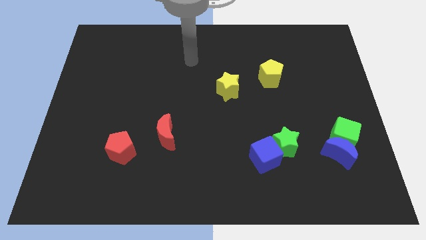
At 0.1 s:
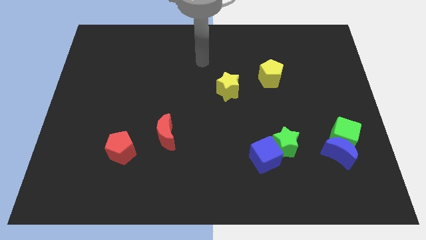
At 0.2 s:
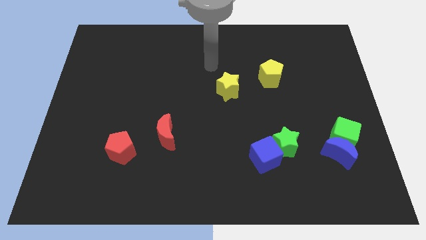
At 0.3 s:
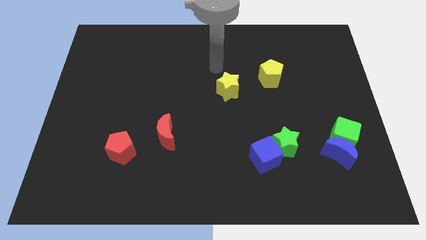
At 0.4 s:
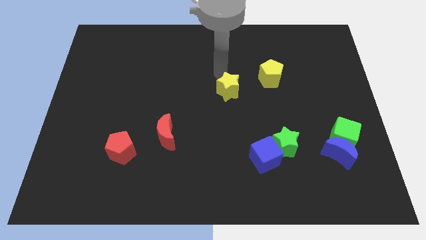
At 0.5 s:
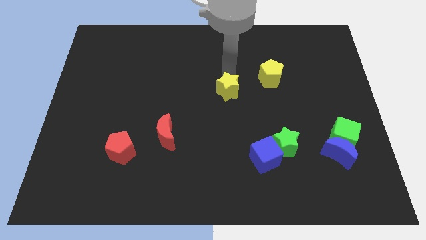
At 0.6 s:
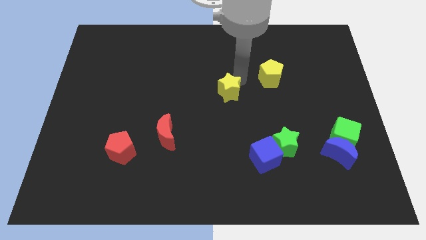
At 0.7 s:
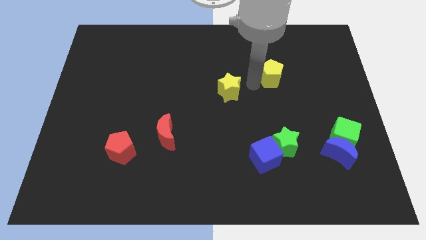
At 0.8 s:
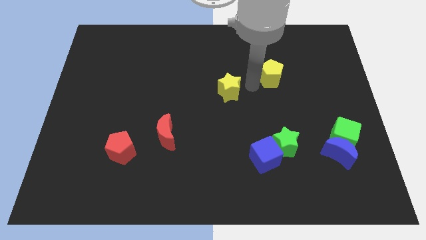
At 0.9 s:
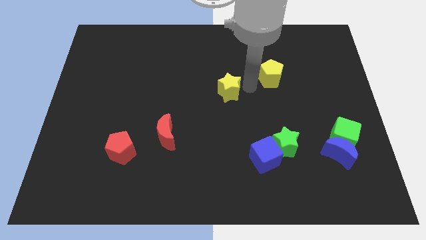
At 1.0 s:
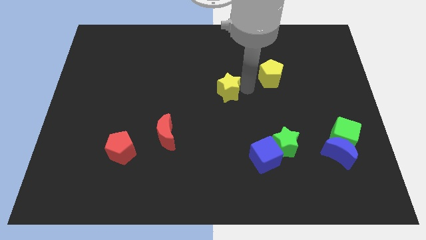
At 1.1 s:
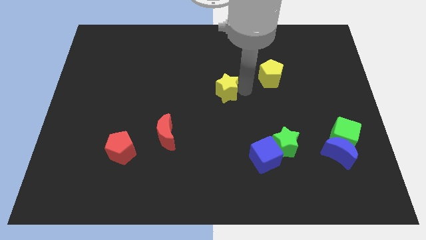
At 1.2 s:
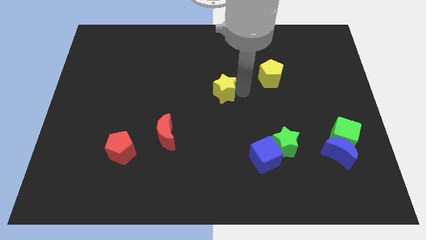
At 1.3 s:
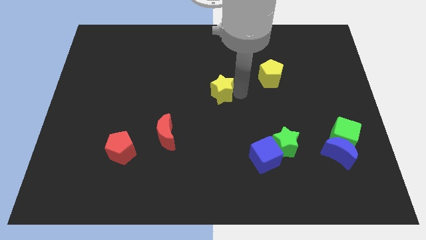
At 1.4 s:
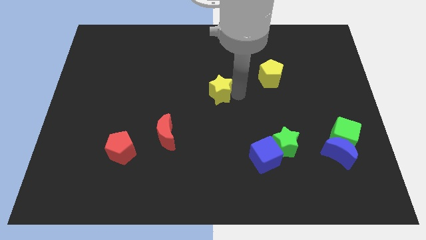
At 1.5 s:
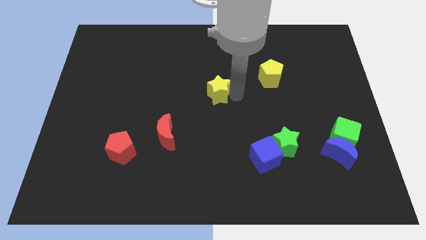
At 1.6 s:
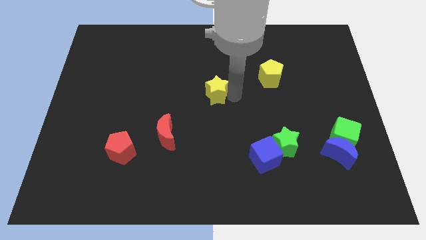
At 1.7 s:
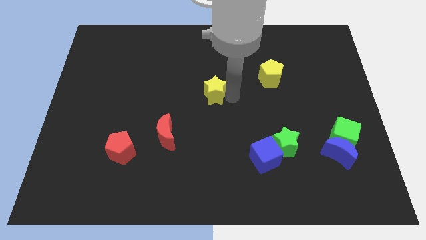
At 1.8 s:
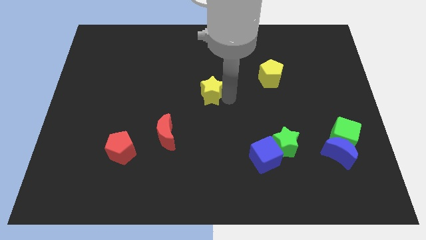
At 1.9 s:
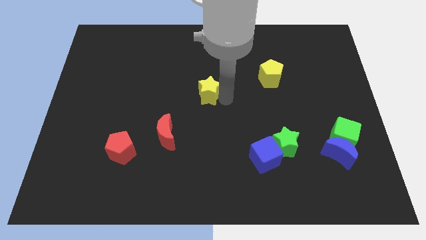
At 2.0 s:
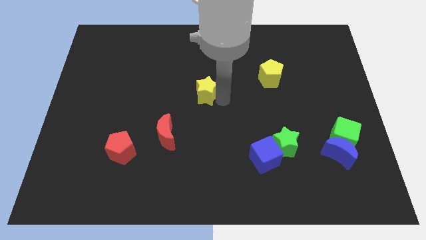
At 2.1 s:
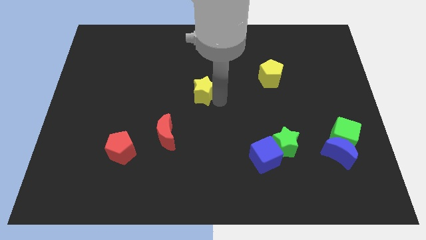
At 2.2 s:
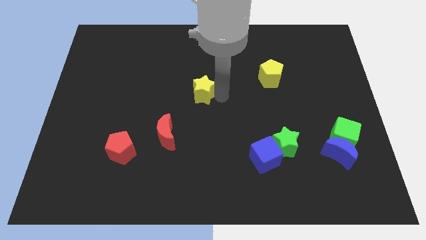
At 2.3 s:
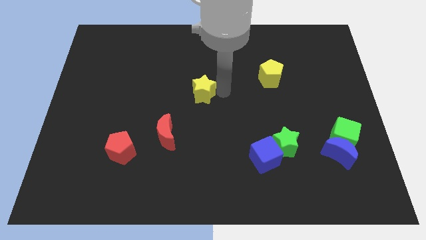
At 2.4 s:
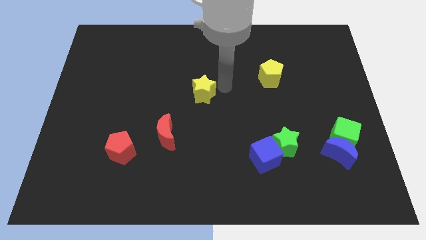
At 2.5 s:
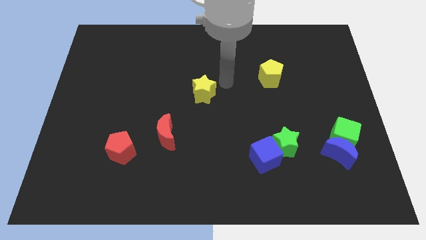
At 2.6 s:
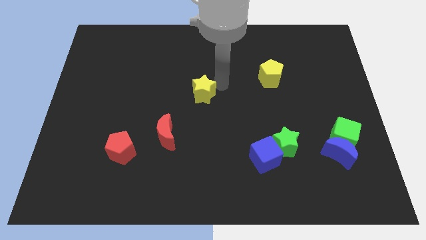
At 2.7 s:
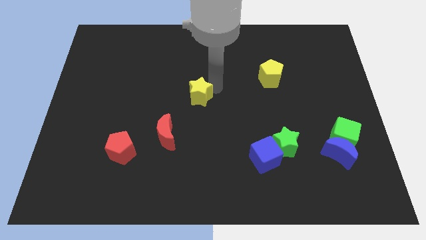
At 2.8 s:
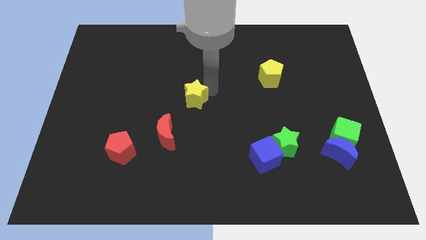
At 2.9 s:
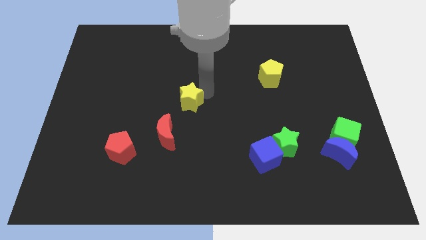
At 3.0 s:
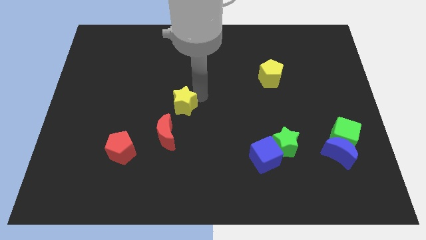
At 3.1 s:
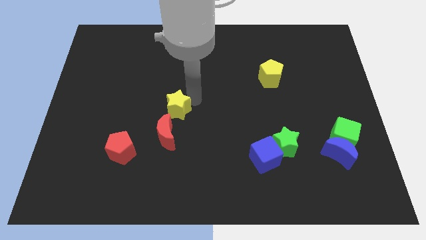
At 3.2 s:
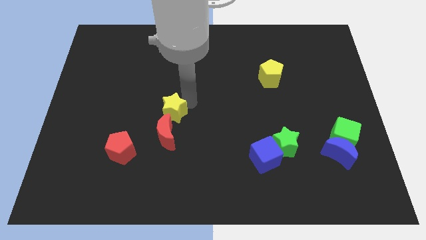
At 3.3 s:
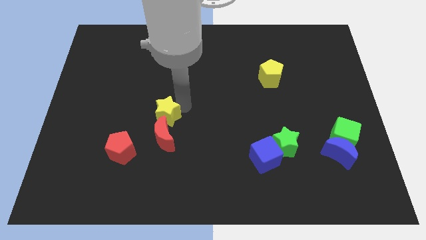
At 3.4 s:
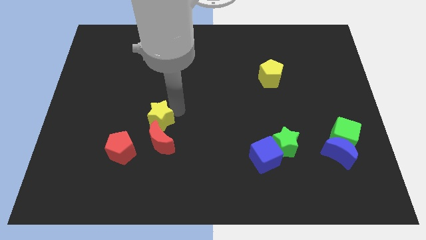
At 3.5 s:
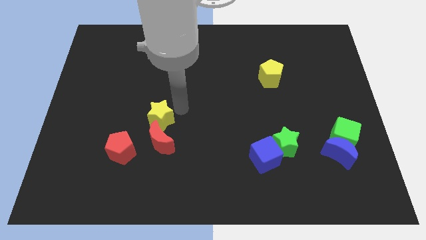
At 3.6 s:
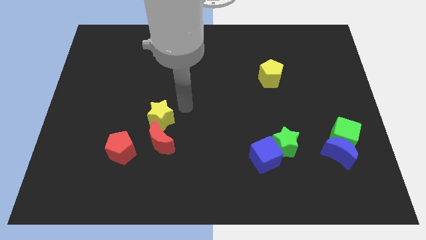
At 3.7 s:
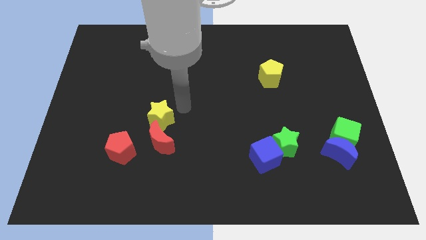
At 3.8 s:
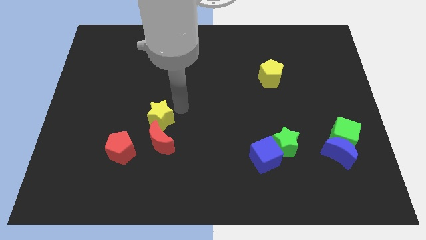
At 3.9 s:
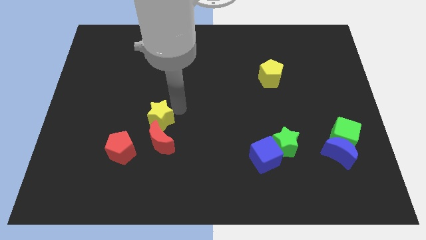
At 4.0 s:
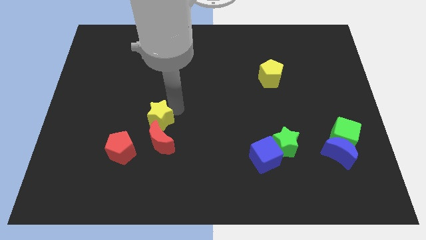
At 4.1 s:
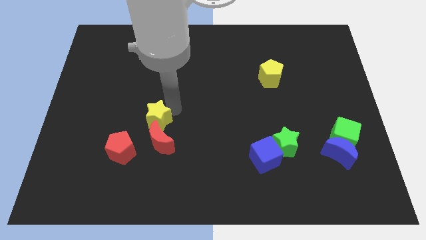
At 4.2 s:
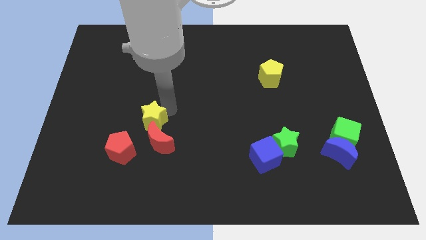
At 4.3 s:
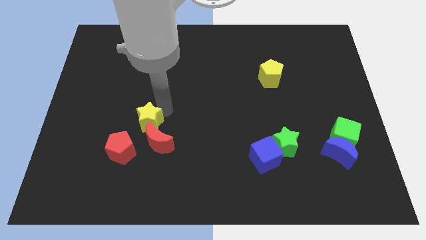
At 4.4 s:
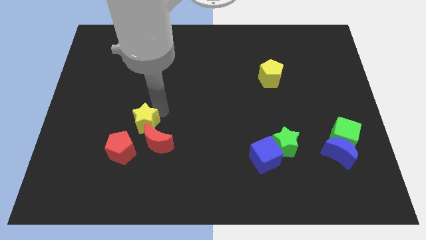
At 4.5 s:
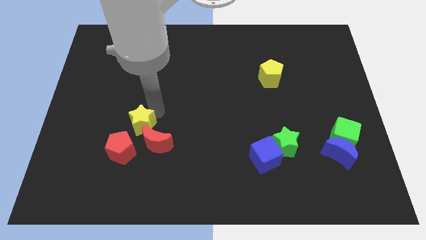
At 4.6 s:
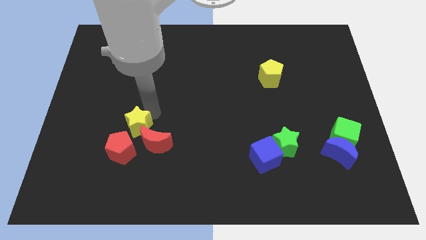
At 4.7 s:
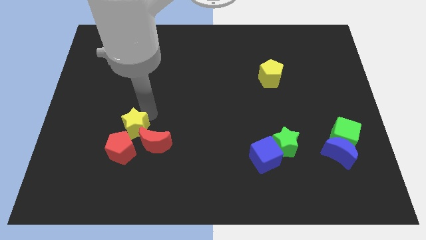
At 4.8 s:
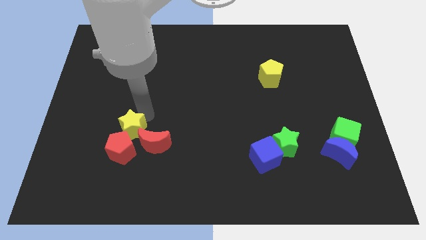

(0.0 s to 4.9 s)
move the yellow star towards the red pentagon

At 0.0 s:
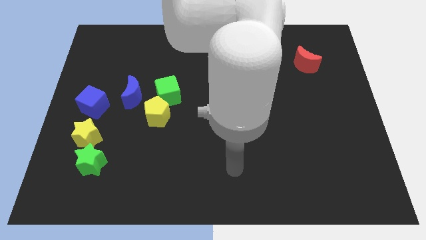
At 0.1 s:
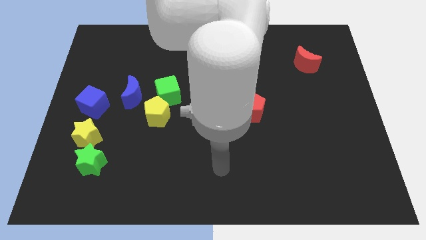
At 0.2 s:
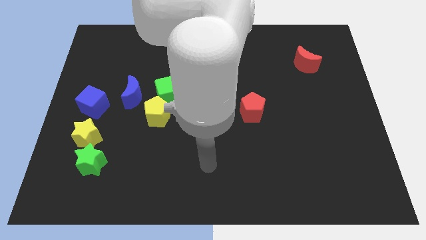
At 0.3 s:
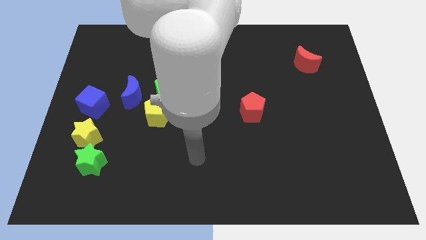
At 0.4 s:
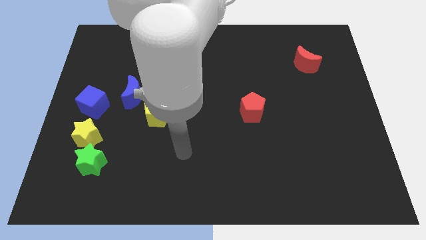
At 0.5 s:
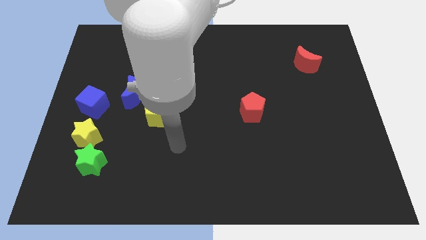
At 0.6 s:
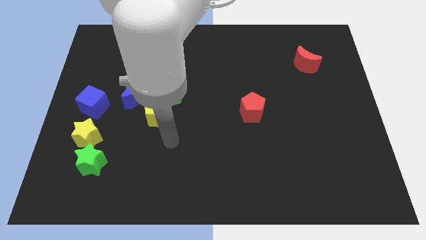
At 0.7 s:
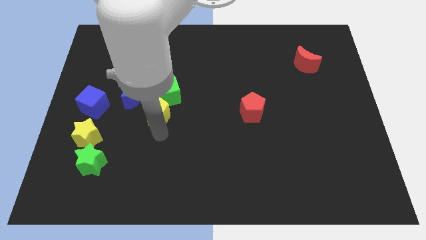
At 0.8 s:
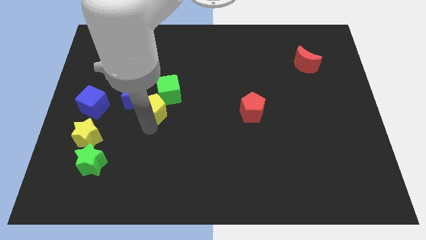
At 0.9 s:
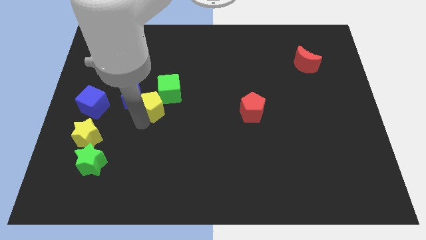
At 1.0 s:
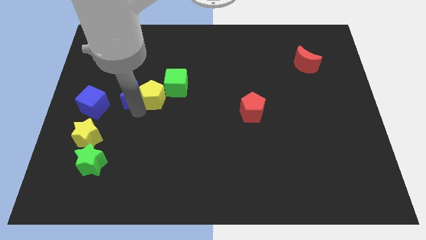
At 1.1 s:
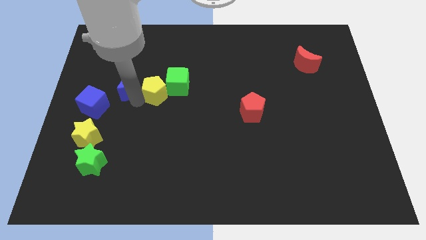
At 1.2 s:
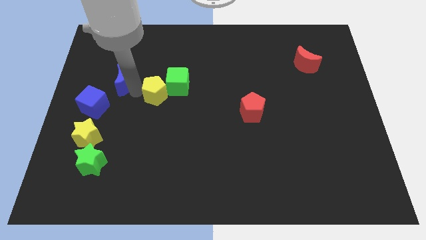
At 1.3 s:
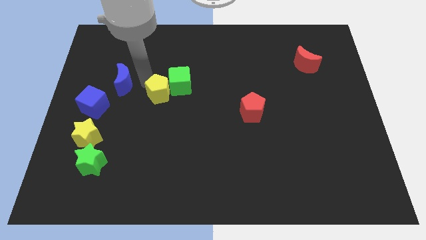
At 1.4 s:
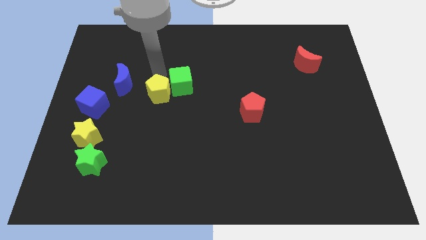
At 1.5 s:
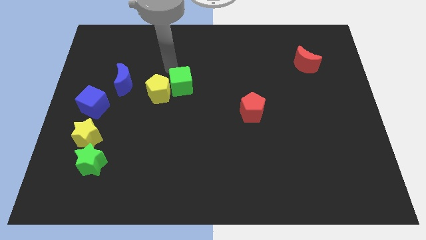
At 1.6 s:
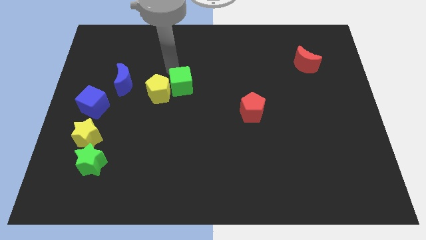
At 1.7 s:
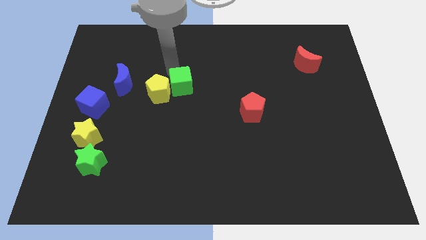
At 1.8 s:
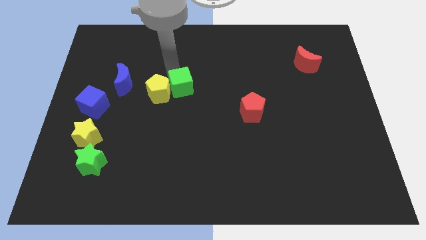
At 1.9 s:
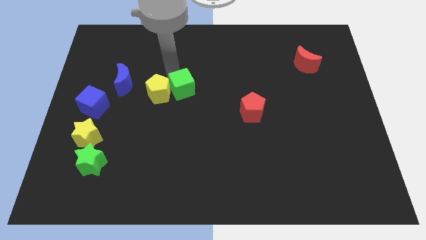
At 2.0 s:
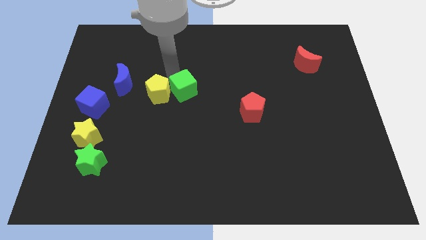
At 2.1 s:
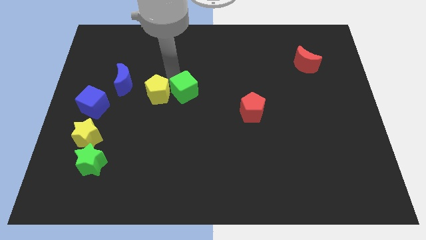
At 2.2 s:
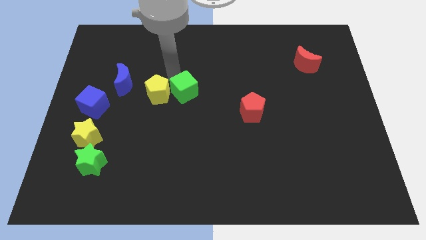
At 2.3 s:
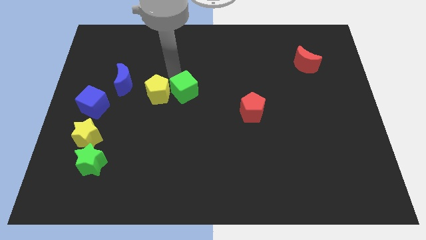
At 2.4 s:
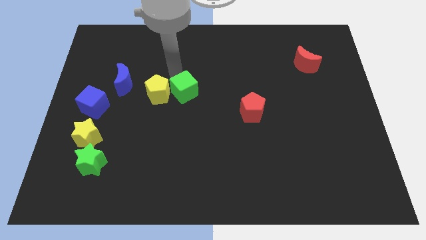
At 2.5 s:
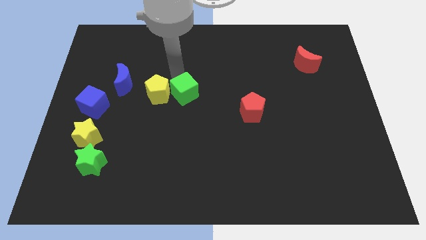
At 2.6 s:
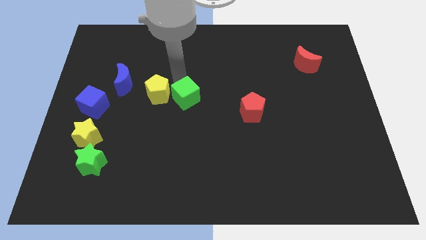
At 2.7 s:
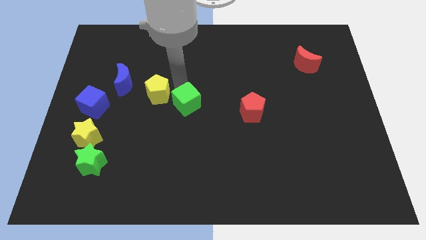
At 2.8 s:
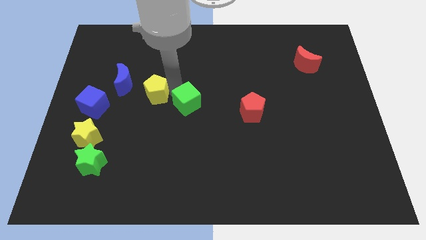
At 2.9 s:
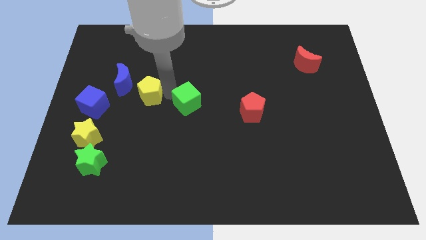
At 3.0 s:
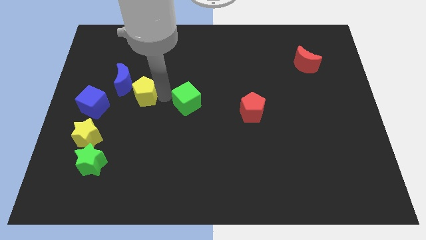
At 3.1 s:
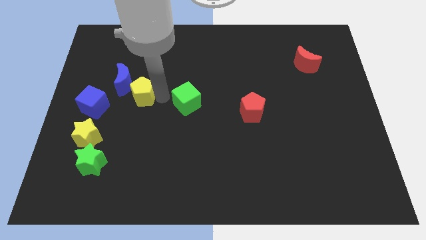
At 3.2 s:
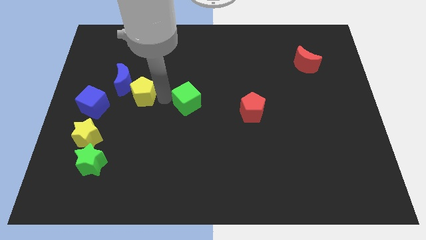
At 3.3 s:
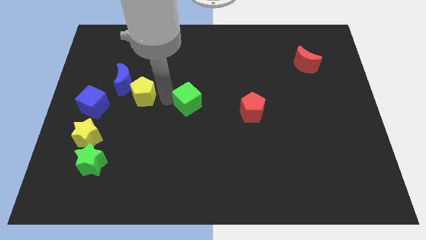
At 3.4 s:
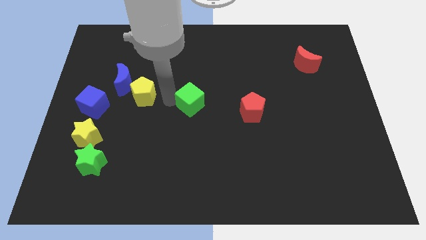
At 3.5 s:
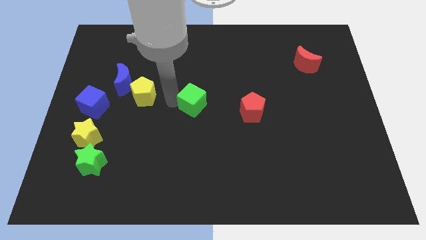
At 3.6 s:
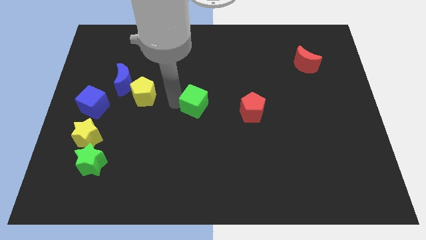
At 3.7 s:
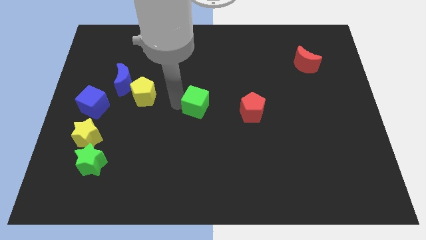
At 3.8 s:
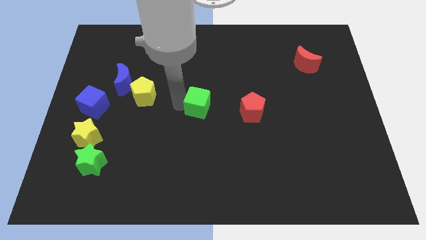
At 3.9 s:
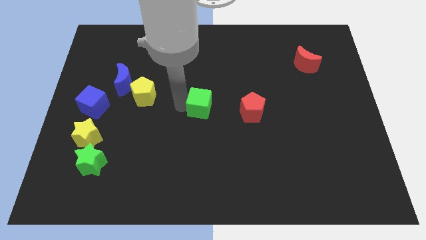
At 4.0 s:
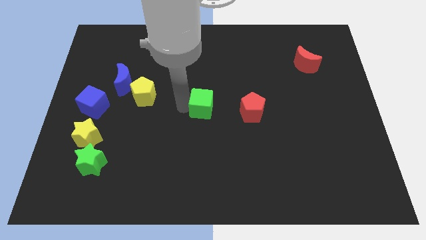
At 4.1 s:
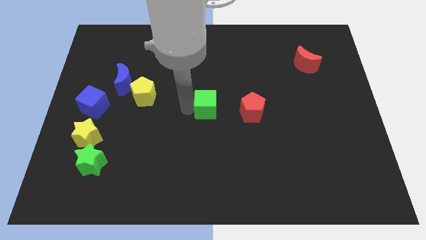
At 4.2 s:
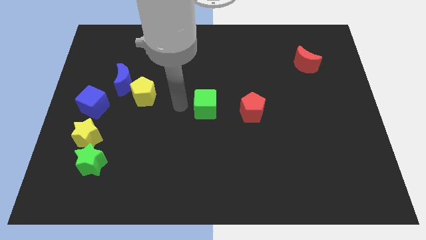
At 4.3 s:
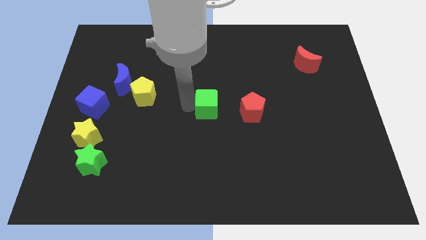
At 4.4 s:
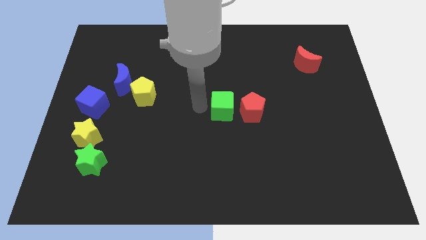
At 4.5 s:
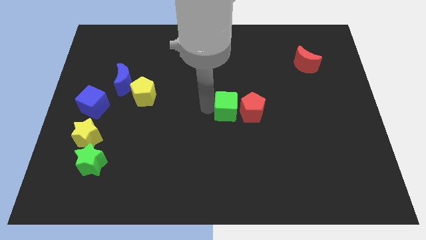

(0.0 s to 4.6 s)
push the green cube to the red pentagon
